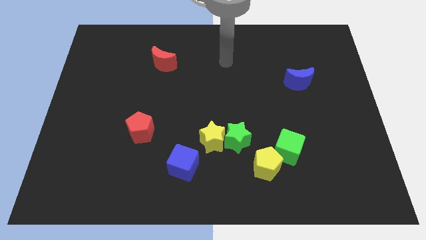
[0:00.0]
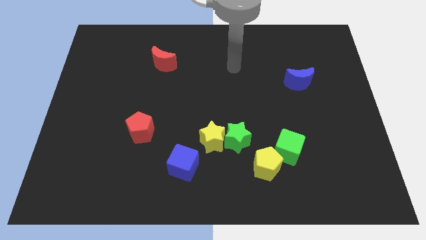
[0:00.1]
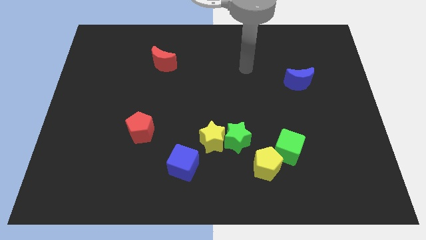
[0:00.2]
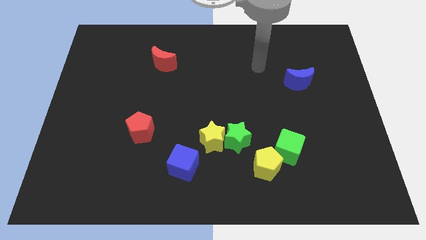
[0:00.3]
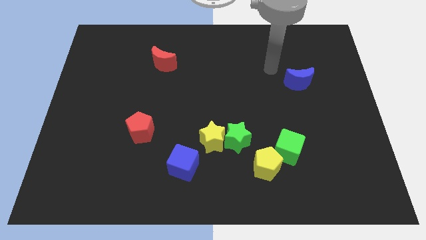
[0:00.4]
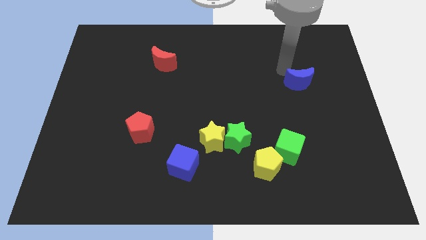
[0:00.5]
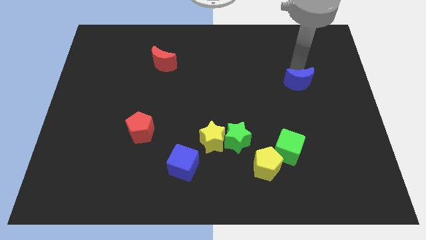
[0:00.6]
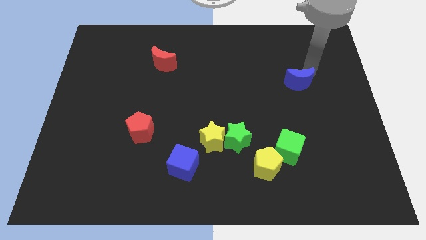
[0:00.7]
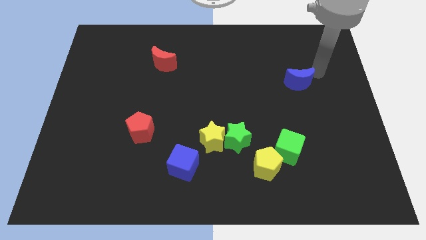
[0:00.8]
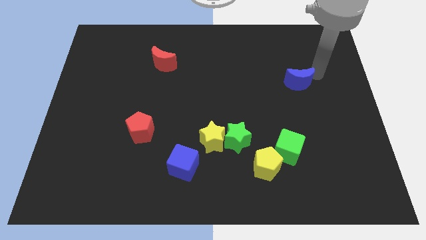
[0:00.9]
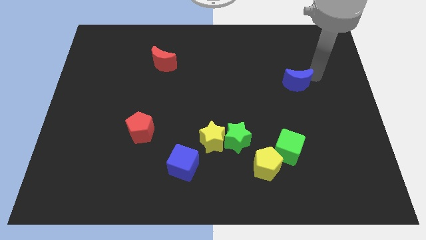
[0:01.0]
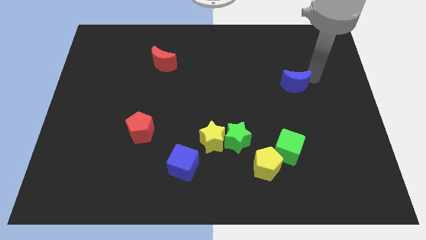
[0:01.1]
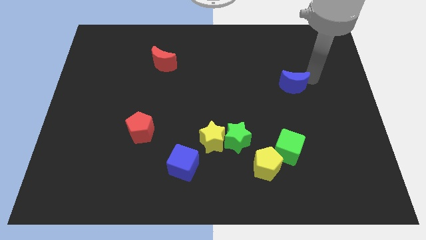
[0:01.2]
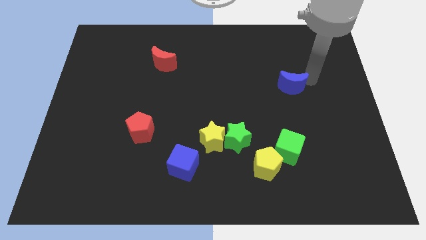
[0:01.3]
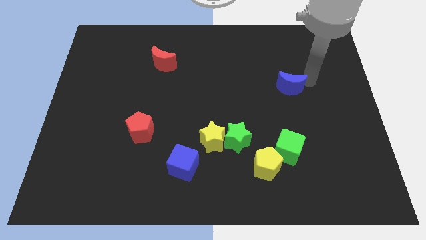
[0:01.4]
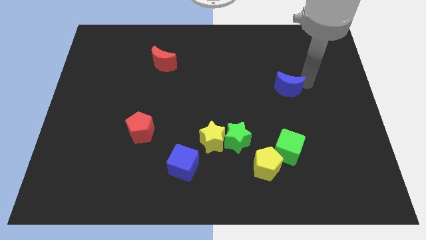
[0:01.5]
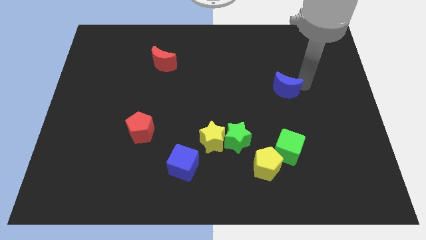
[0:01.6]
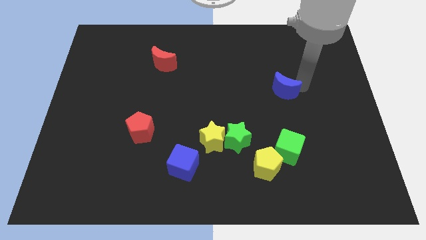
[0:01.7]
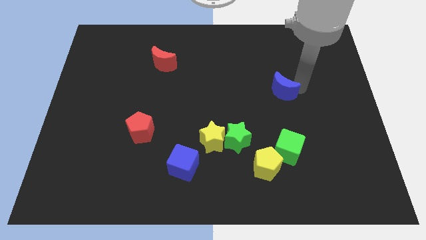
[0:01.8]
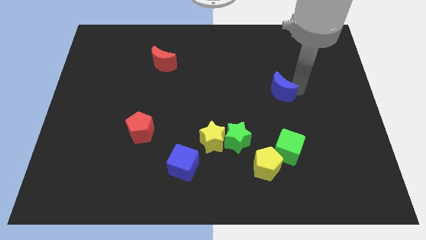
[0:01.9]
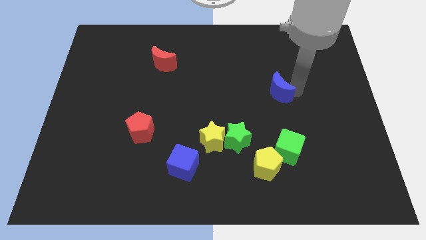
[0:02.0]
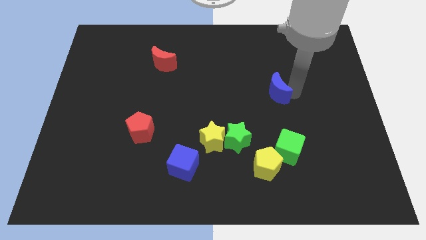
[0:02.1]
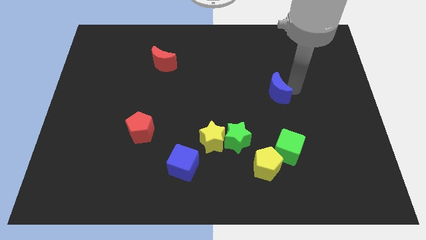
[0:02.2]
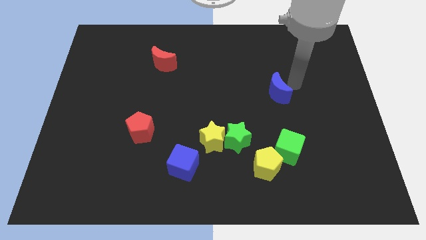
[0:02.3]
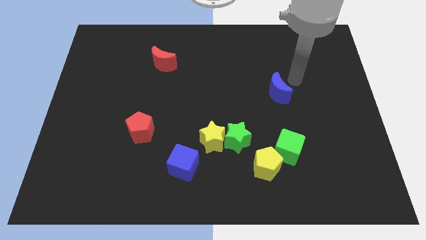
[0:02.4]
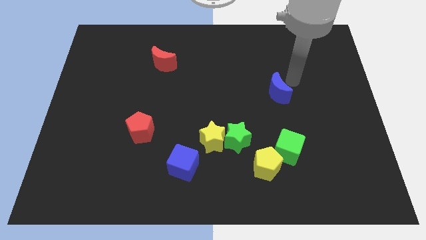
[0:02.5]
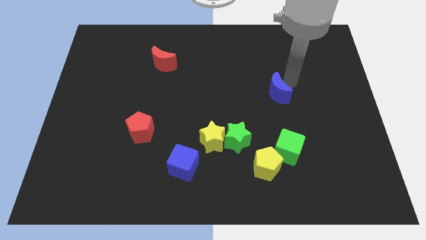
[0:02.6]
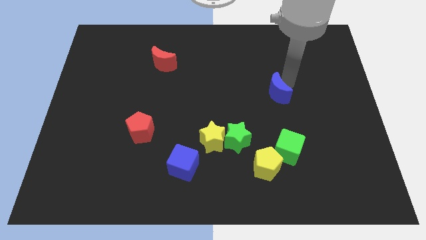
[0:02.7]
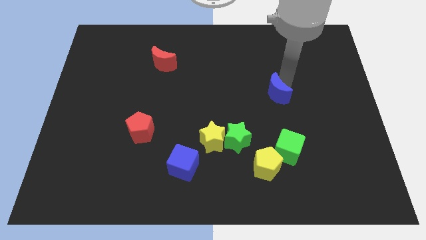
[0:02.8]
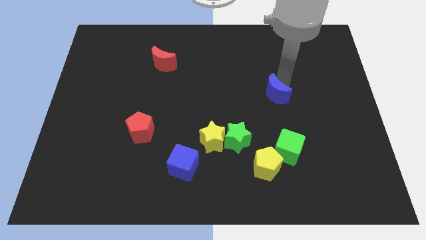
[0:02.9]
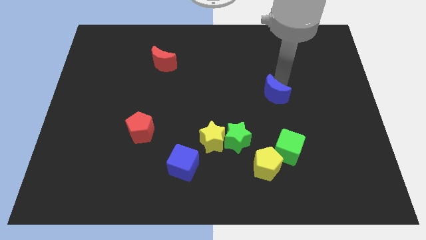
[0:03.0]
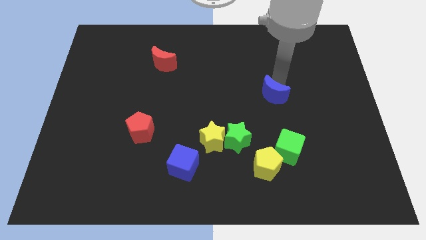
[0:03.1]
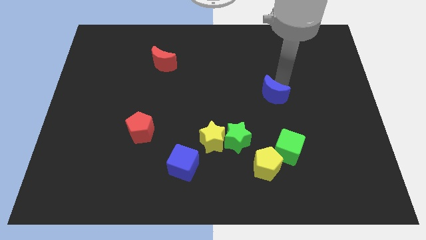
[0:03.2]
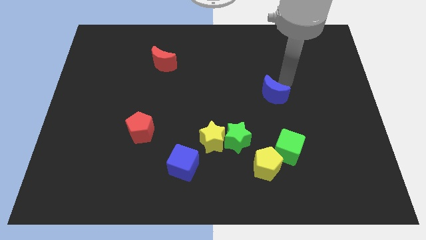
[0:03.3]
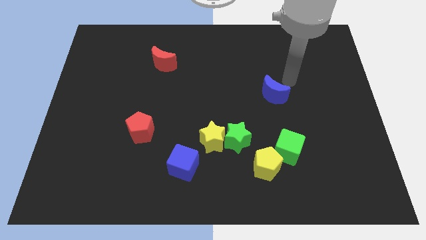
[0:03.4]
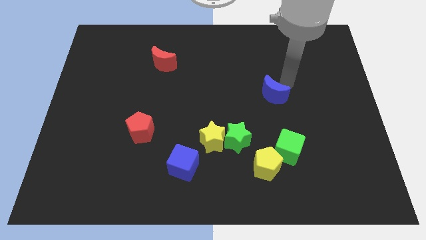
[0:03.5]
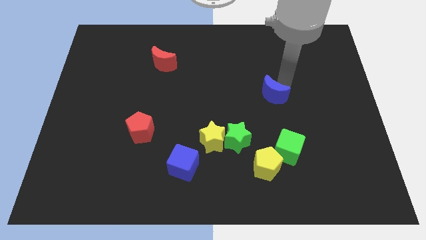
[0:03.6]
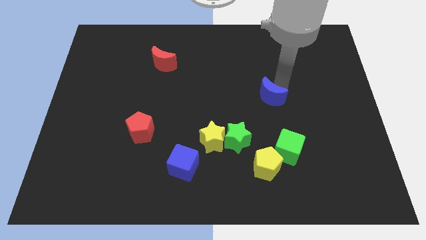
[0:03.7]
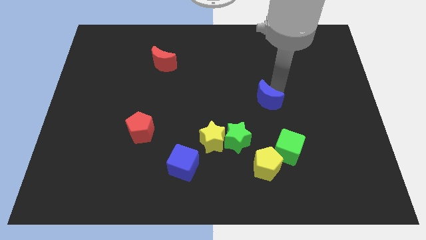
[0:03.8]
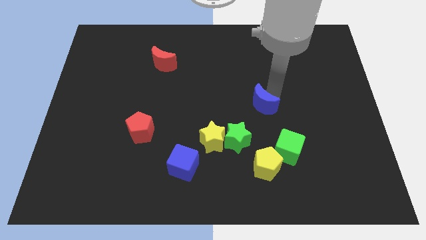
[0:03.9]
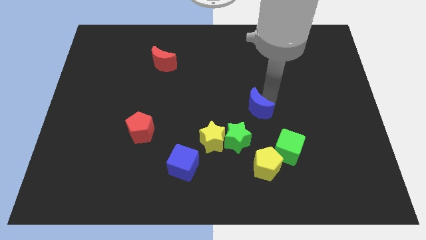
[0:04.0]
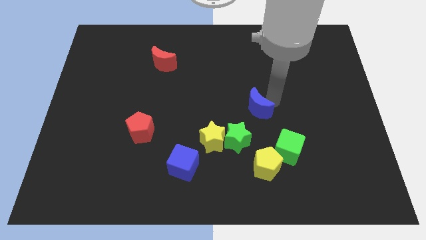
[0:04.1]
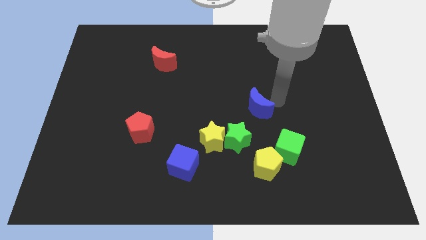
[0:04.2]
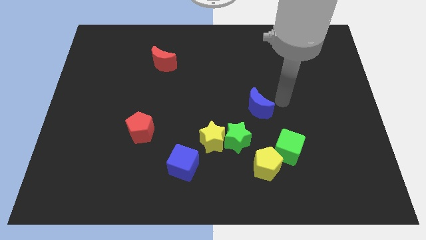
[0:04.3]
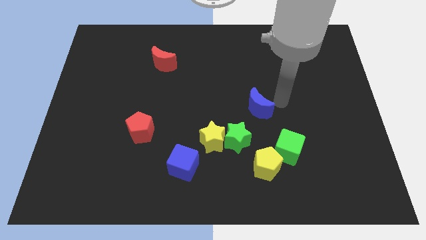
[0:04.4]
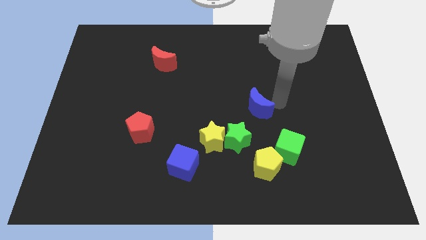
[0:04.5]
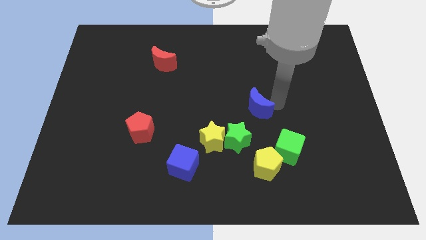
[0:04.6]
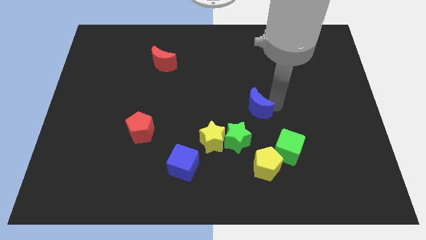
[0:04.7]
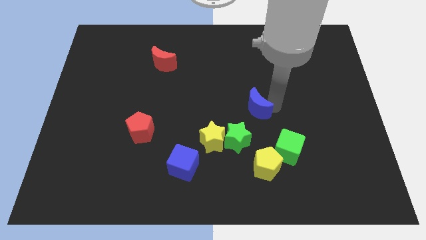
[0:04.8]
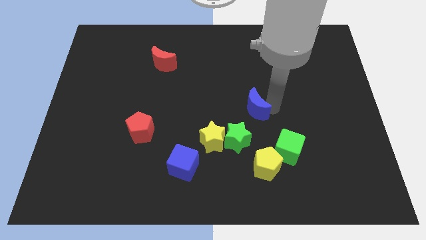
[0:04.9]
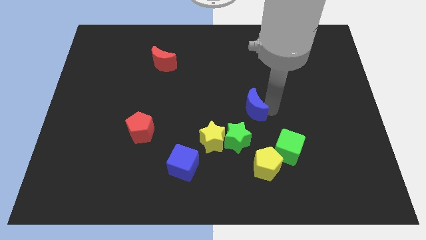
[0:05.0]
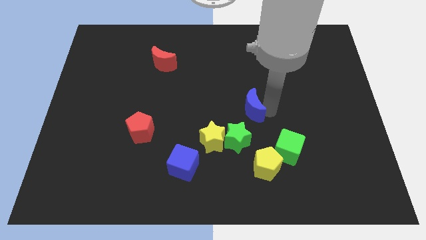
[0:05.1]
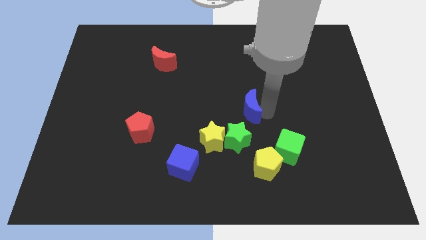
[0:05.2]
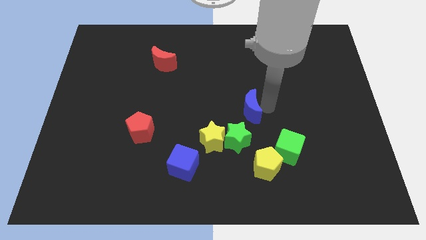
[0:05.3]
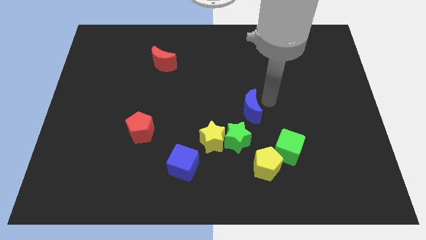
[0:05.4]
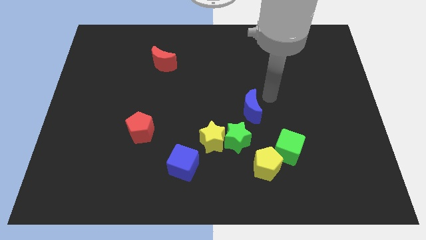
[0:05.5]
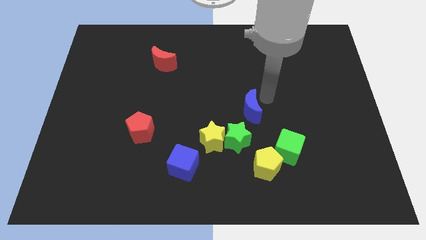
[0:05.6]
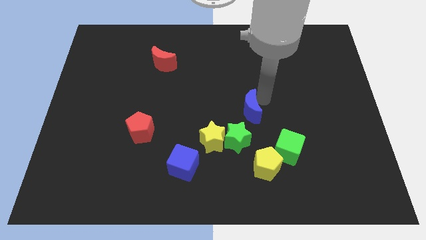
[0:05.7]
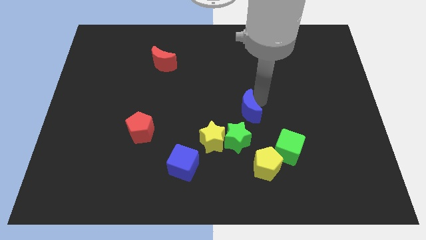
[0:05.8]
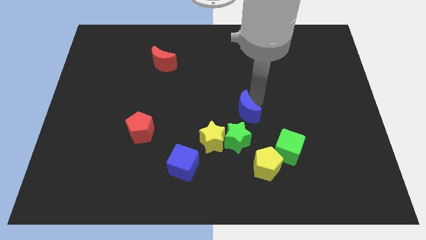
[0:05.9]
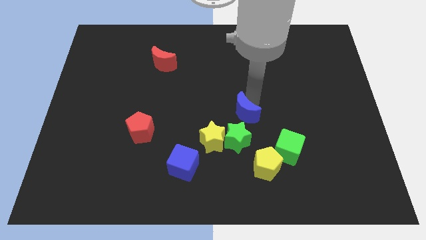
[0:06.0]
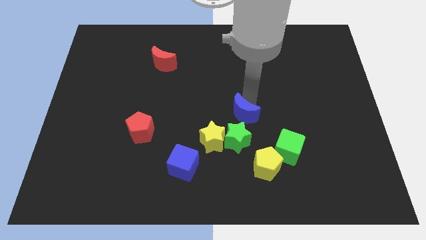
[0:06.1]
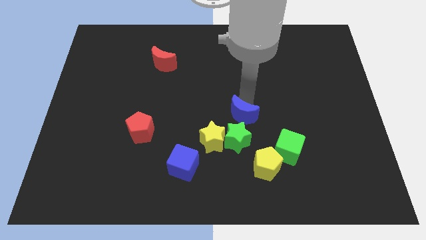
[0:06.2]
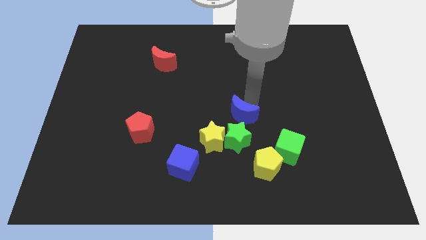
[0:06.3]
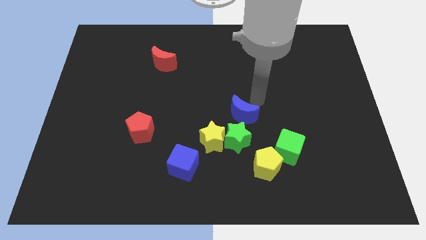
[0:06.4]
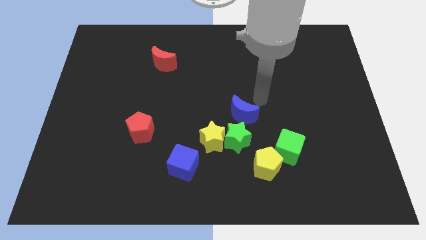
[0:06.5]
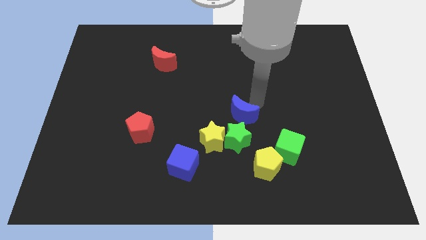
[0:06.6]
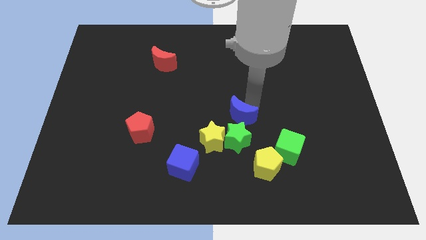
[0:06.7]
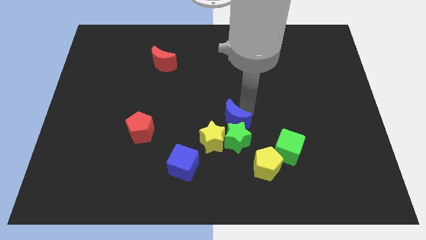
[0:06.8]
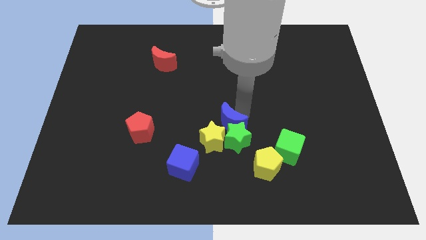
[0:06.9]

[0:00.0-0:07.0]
push the blue moon close to the yellow star

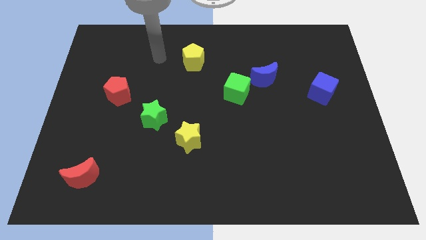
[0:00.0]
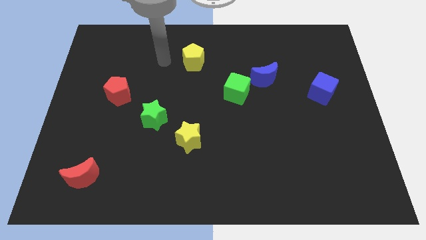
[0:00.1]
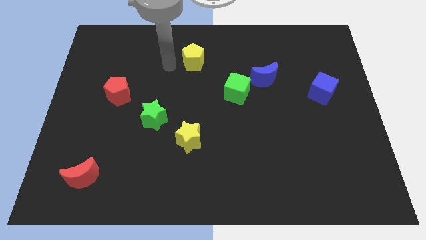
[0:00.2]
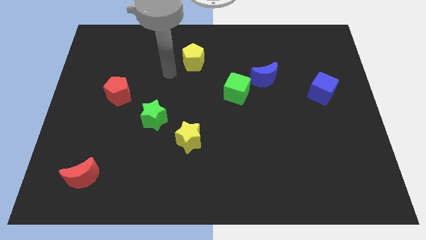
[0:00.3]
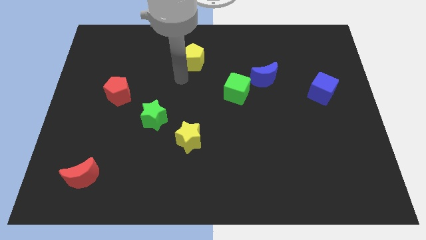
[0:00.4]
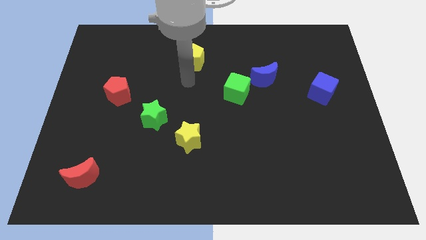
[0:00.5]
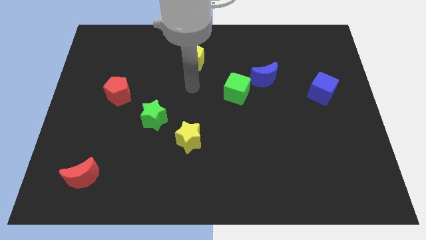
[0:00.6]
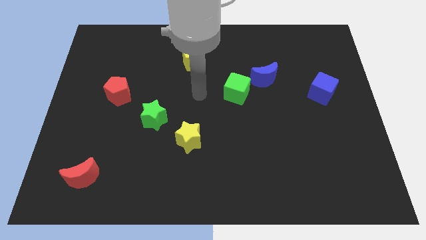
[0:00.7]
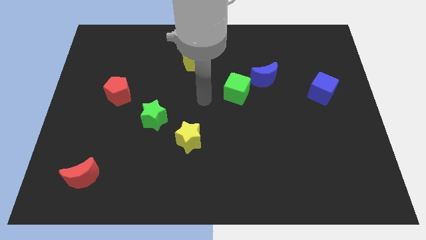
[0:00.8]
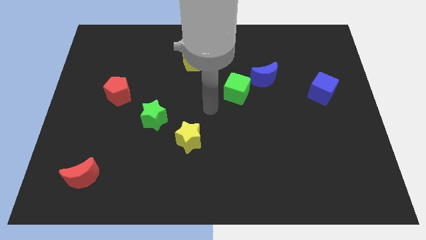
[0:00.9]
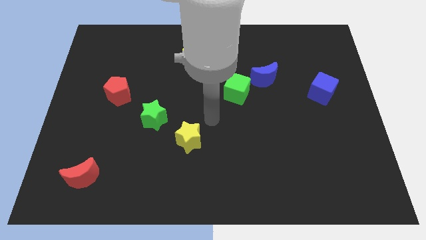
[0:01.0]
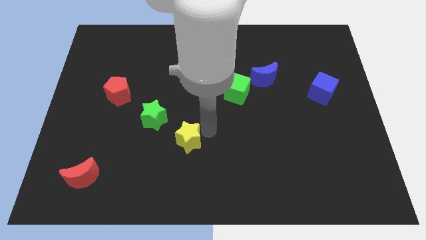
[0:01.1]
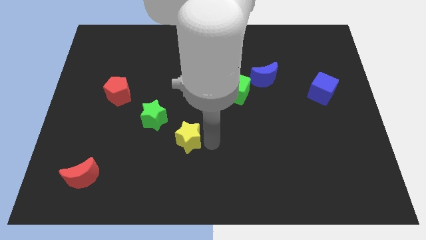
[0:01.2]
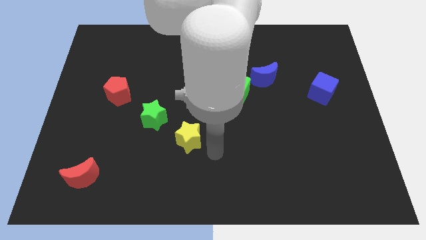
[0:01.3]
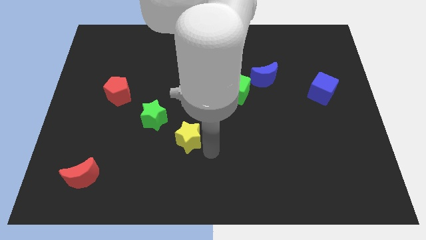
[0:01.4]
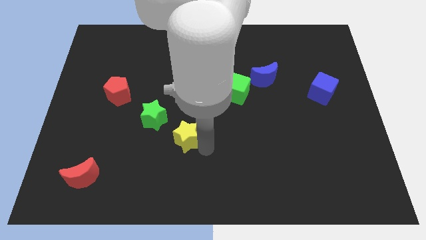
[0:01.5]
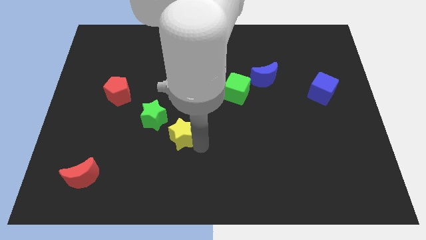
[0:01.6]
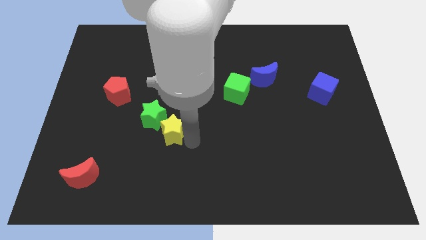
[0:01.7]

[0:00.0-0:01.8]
push the yellow star next to the green star
